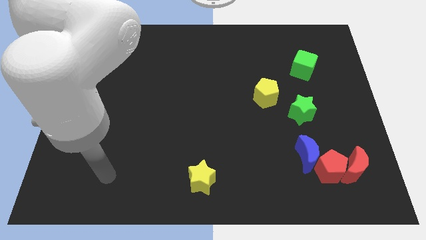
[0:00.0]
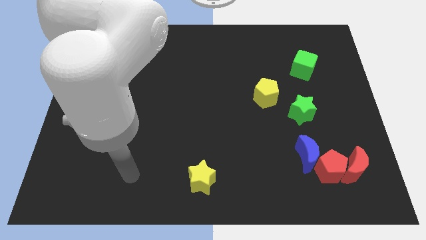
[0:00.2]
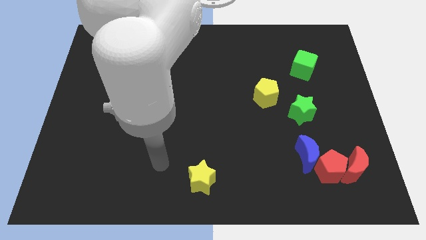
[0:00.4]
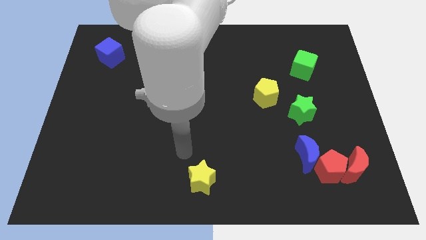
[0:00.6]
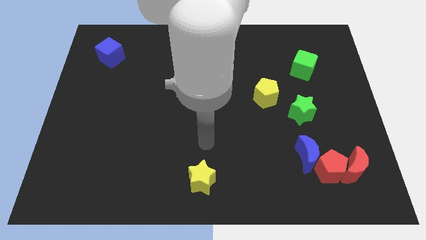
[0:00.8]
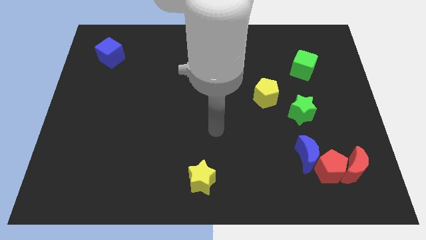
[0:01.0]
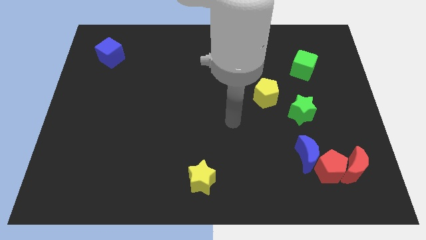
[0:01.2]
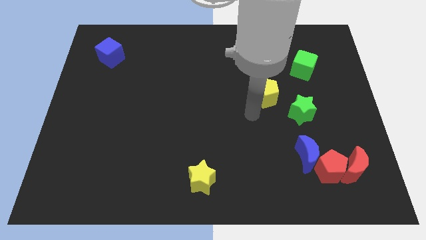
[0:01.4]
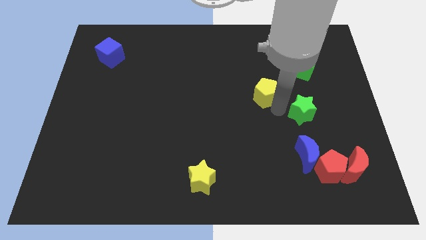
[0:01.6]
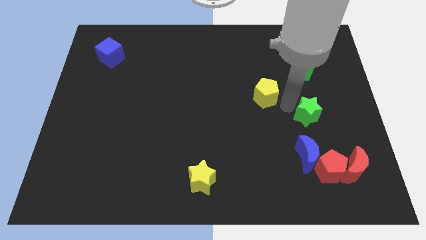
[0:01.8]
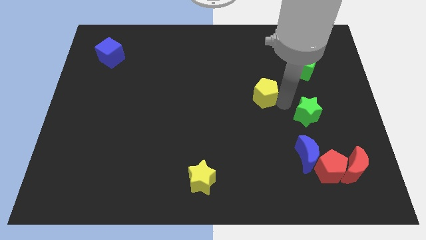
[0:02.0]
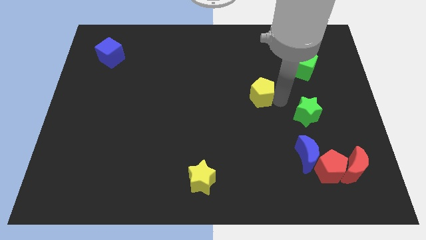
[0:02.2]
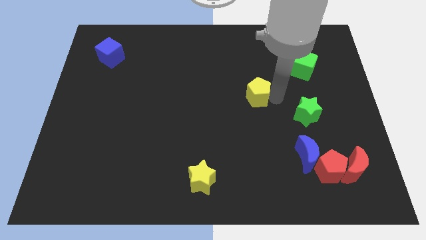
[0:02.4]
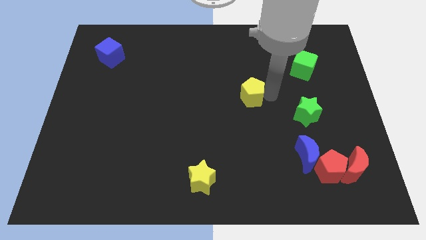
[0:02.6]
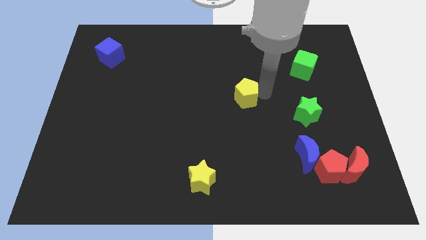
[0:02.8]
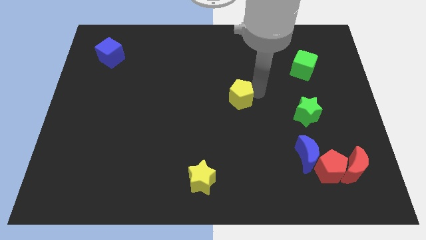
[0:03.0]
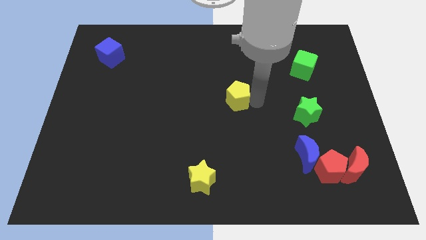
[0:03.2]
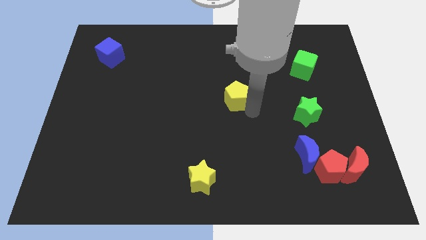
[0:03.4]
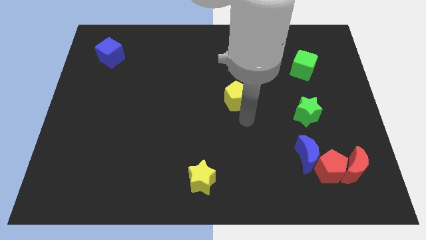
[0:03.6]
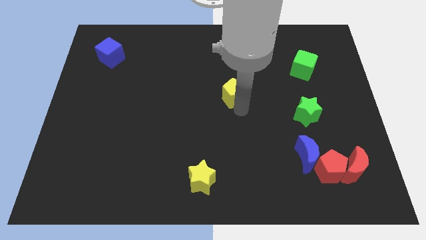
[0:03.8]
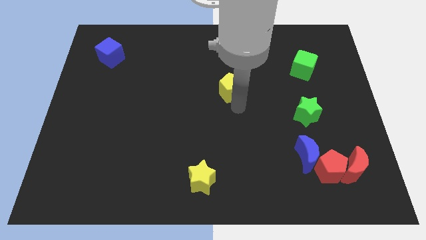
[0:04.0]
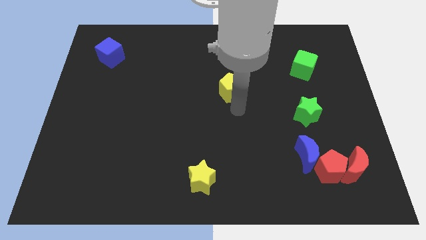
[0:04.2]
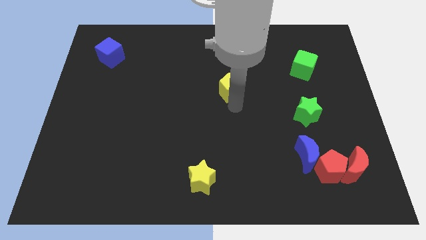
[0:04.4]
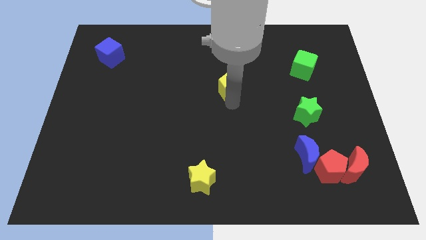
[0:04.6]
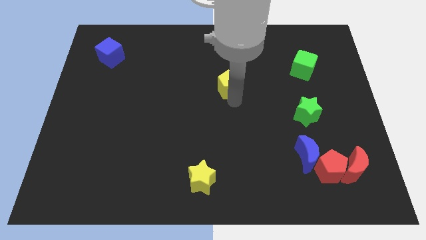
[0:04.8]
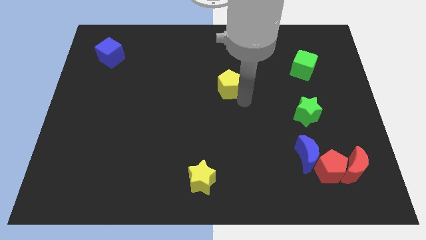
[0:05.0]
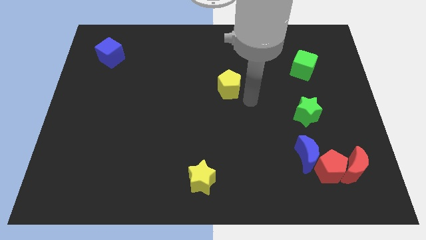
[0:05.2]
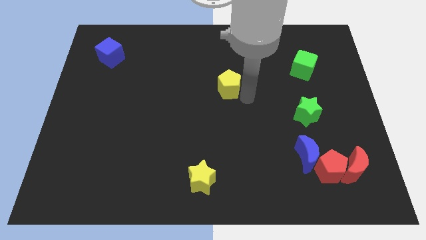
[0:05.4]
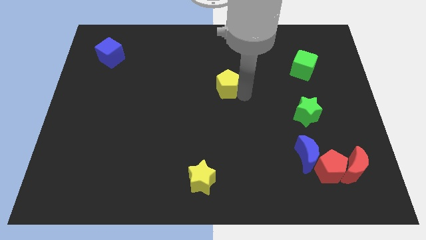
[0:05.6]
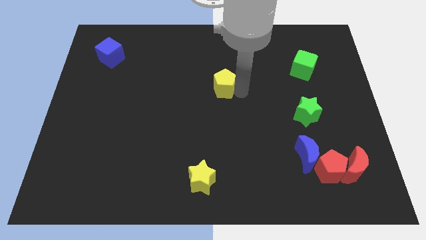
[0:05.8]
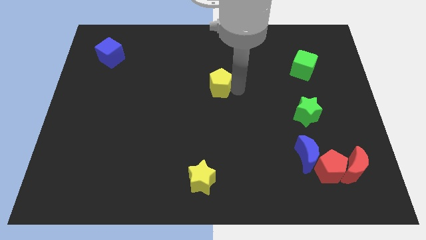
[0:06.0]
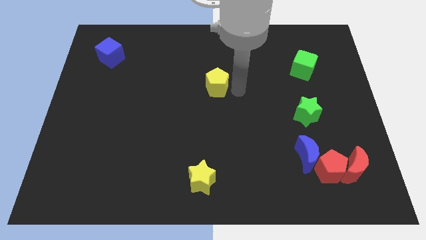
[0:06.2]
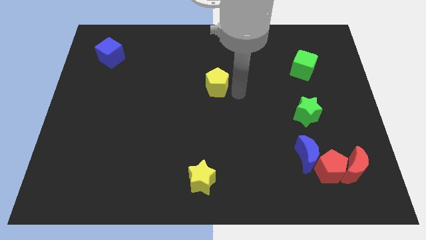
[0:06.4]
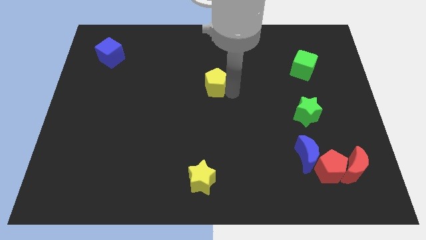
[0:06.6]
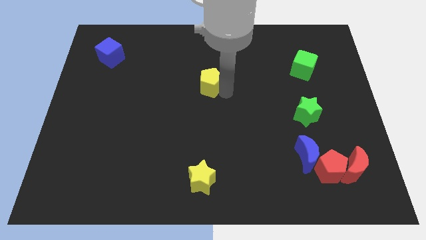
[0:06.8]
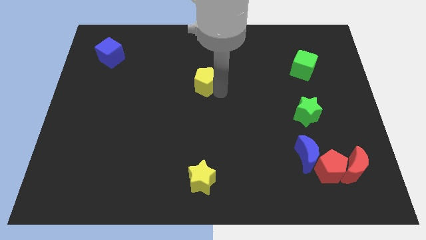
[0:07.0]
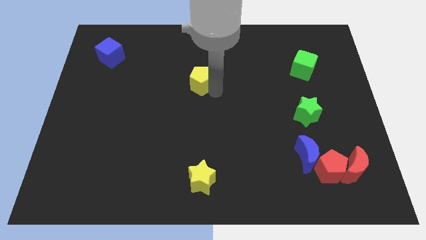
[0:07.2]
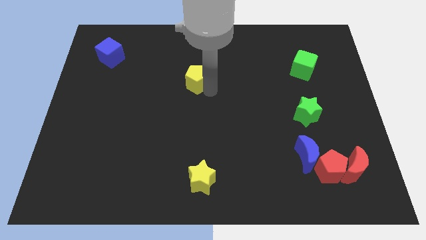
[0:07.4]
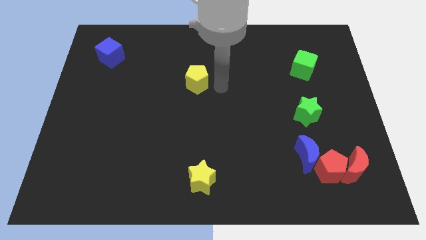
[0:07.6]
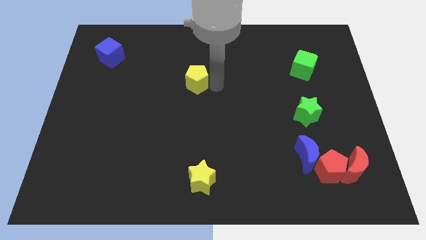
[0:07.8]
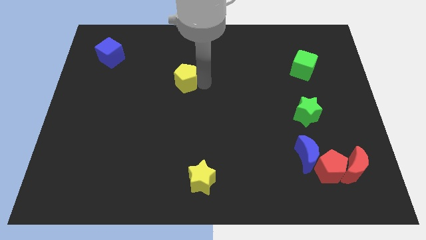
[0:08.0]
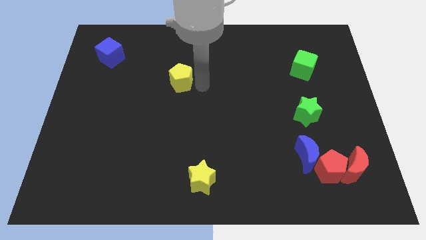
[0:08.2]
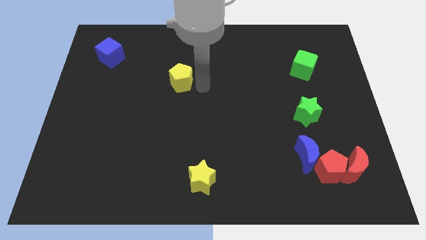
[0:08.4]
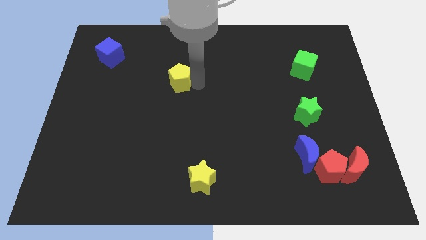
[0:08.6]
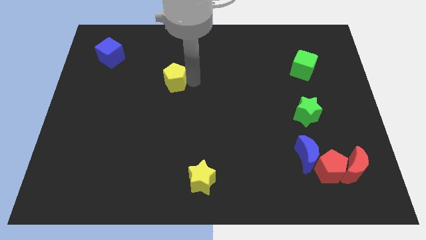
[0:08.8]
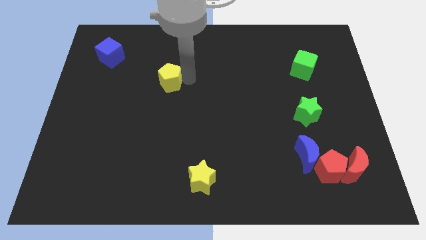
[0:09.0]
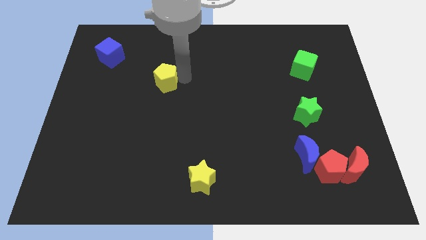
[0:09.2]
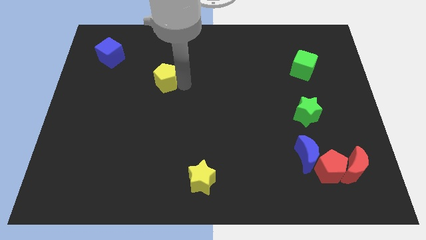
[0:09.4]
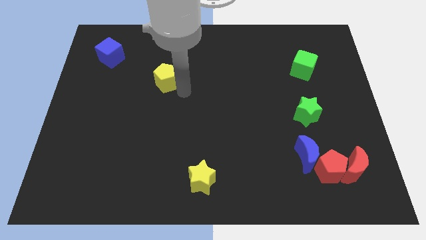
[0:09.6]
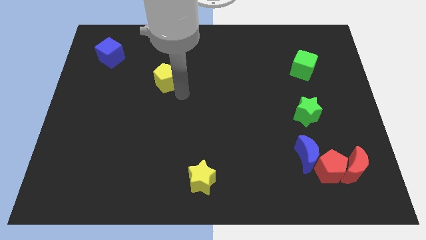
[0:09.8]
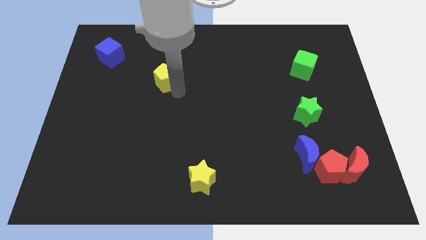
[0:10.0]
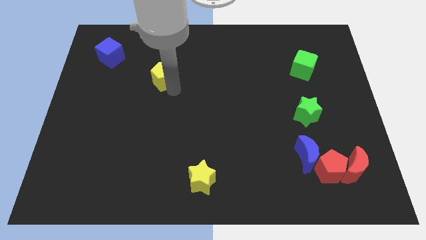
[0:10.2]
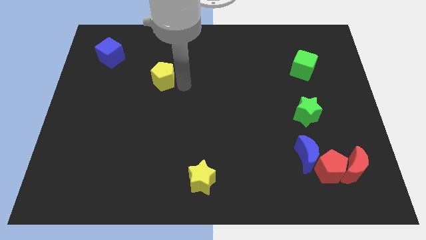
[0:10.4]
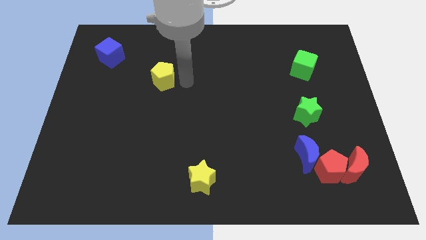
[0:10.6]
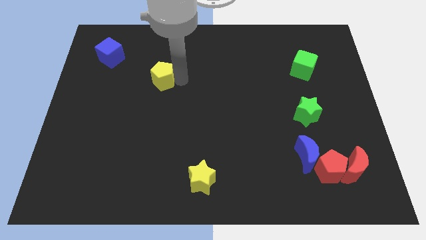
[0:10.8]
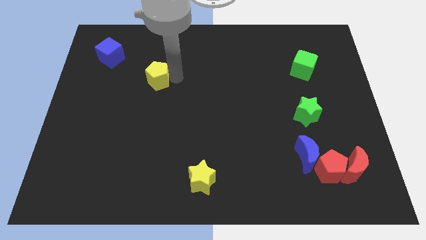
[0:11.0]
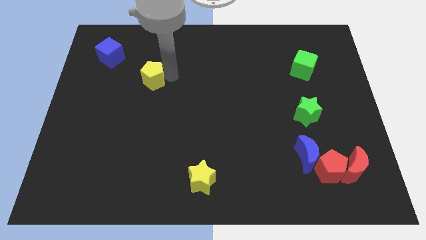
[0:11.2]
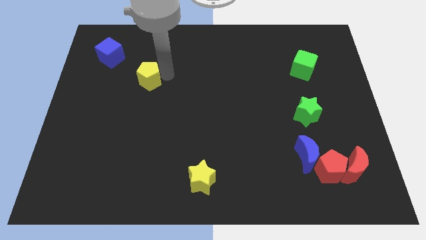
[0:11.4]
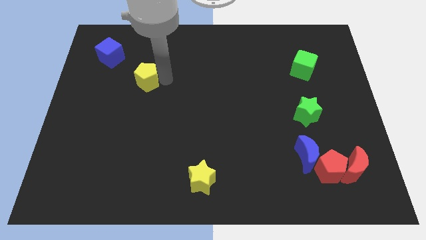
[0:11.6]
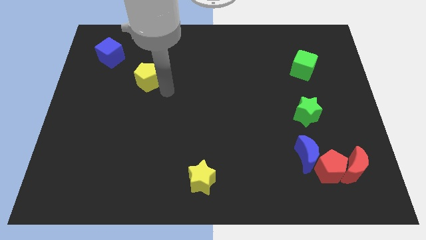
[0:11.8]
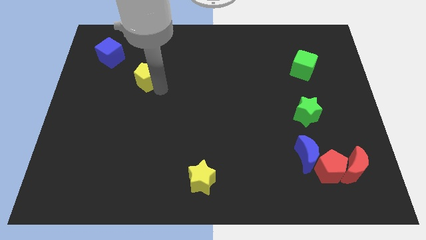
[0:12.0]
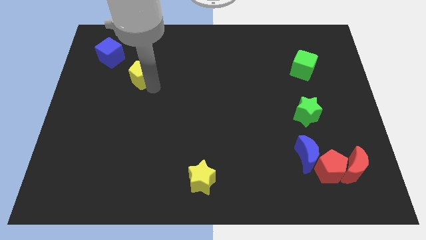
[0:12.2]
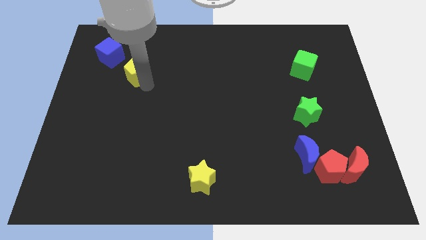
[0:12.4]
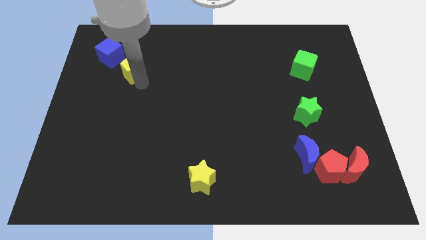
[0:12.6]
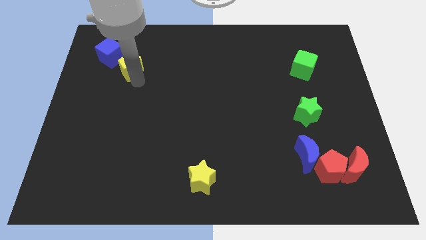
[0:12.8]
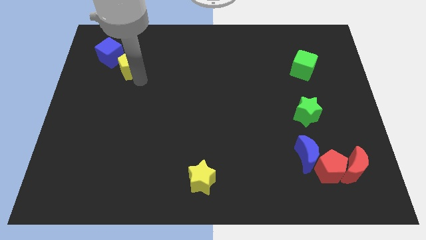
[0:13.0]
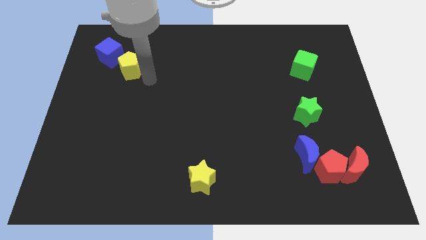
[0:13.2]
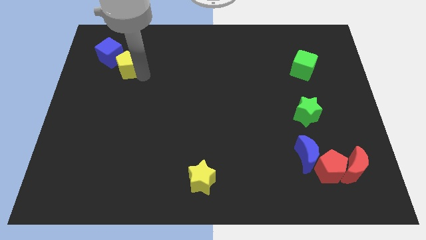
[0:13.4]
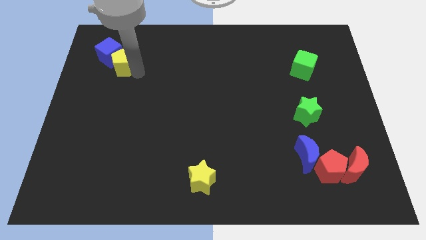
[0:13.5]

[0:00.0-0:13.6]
put the yellow pentagon close to the blue cube
